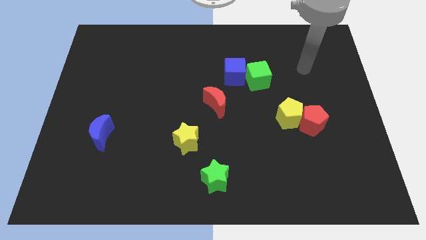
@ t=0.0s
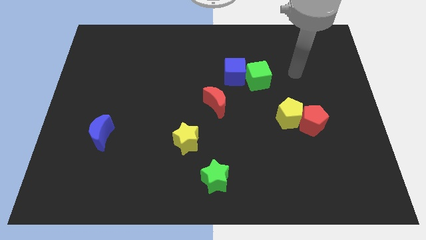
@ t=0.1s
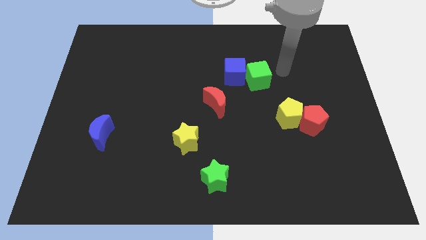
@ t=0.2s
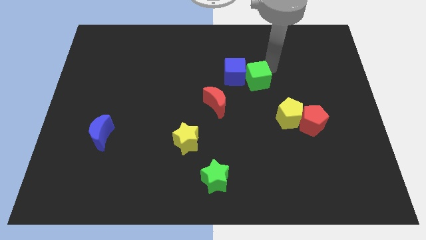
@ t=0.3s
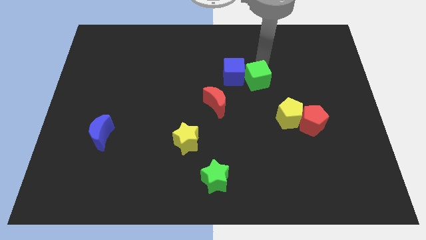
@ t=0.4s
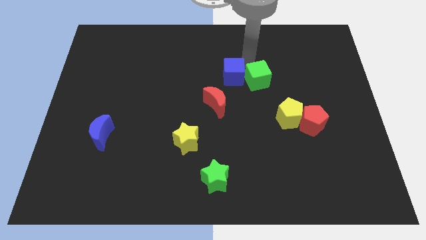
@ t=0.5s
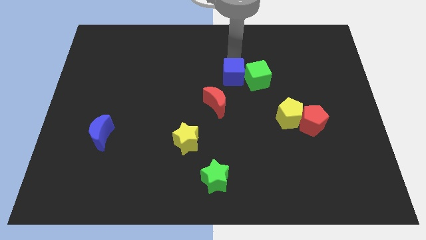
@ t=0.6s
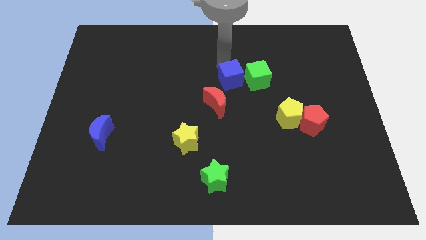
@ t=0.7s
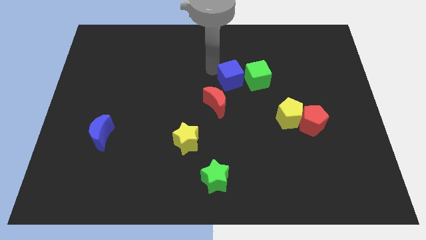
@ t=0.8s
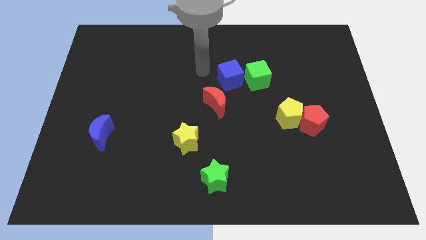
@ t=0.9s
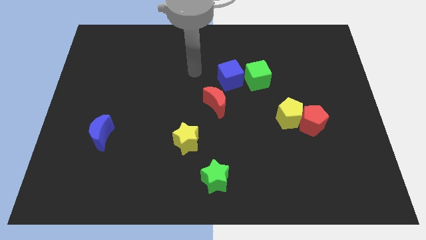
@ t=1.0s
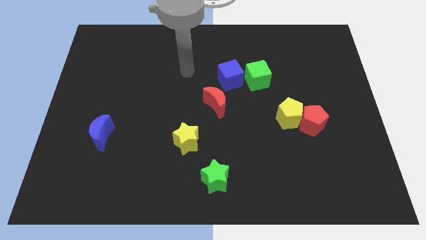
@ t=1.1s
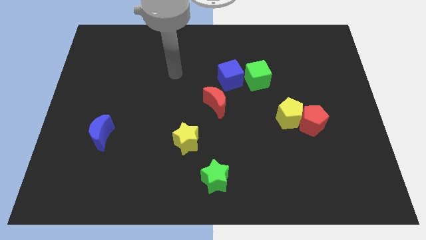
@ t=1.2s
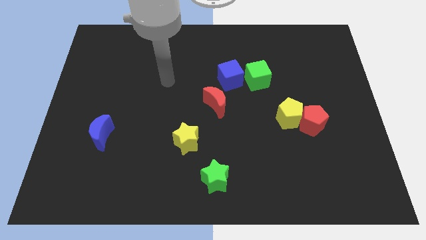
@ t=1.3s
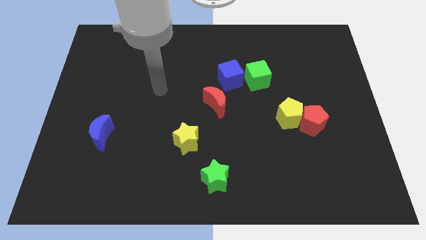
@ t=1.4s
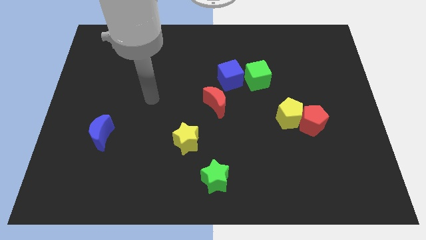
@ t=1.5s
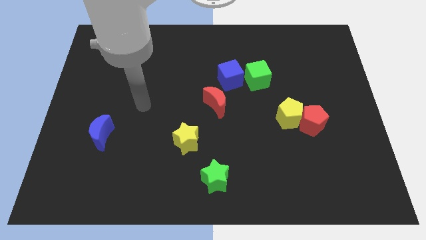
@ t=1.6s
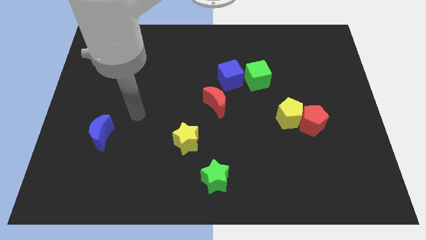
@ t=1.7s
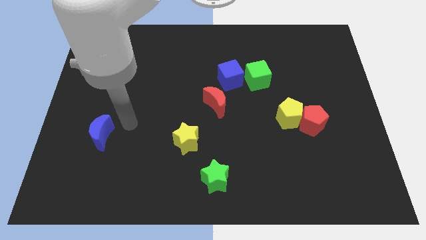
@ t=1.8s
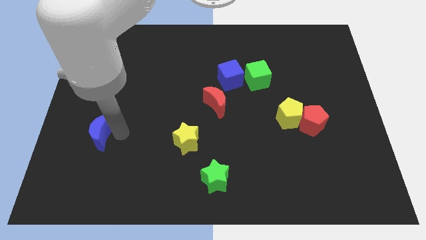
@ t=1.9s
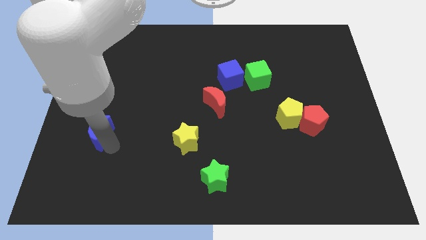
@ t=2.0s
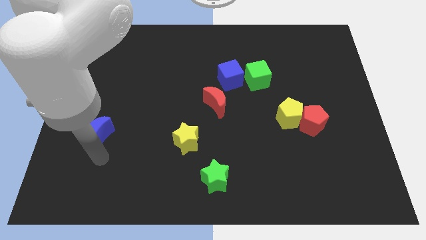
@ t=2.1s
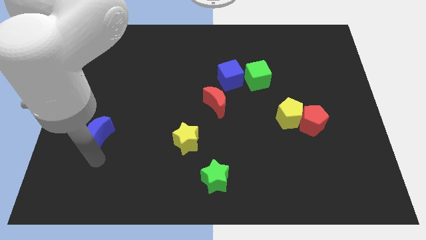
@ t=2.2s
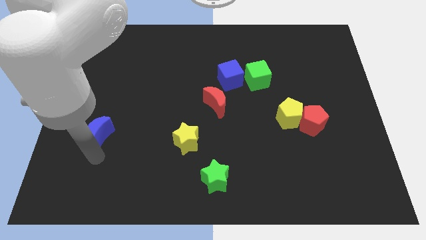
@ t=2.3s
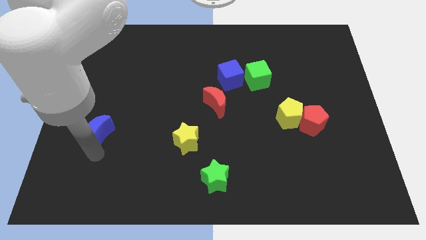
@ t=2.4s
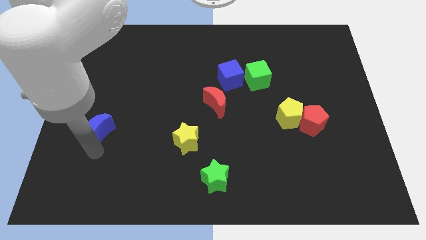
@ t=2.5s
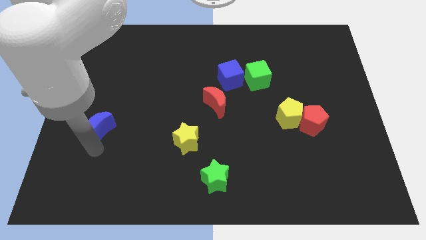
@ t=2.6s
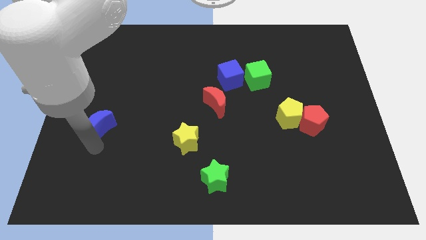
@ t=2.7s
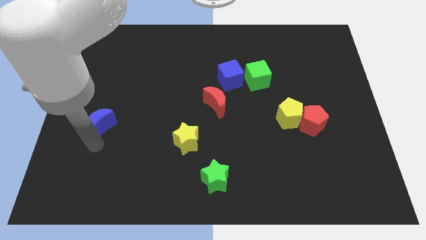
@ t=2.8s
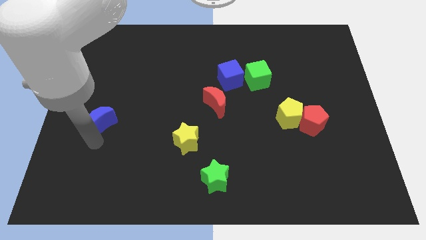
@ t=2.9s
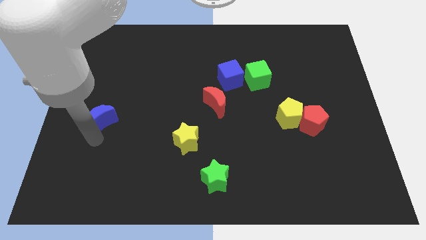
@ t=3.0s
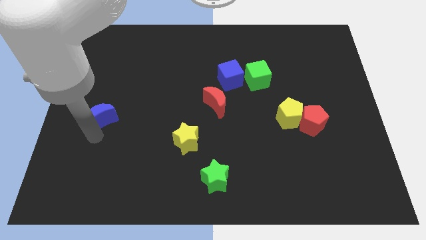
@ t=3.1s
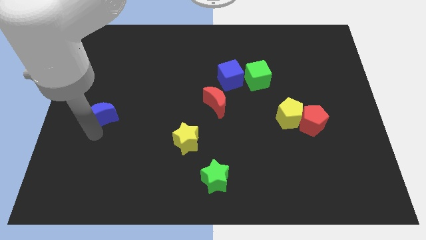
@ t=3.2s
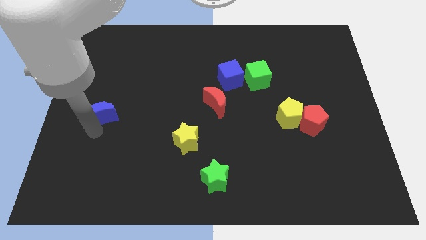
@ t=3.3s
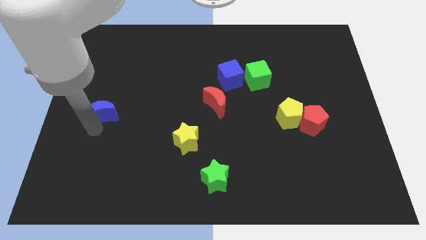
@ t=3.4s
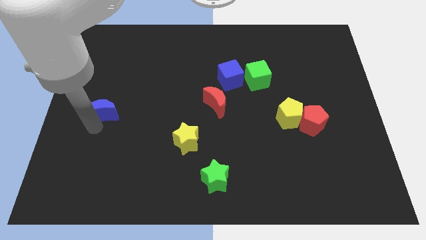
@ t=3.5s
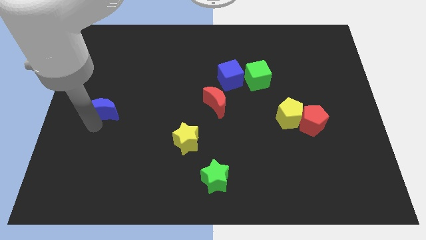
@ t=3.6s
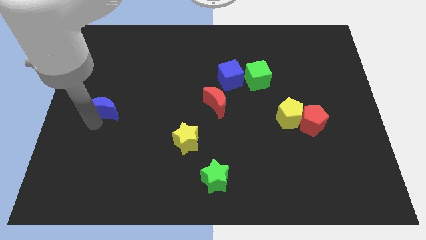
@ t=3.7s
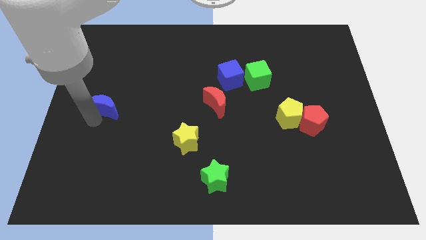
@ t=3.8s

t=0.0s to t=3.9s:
slide the blue moon up a bit

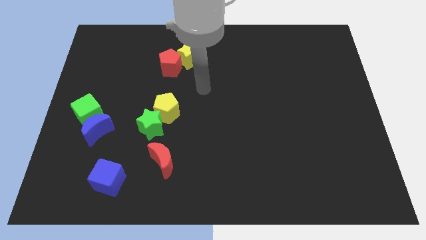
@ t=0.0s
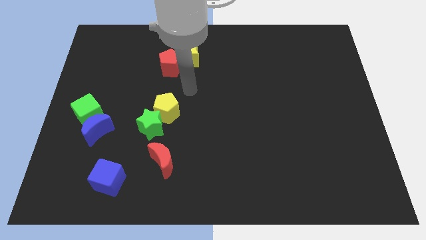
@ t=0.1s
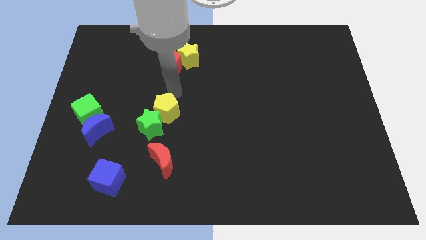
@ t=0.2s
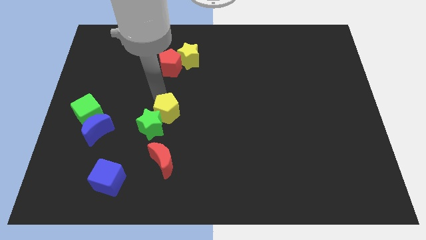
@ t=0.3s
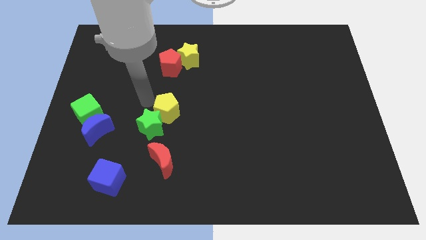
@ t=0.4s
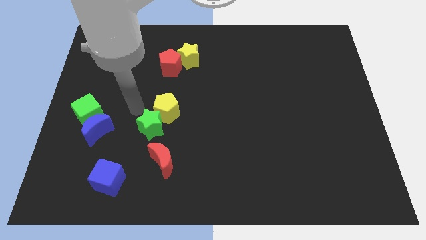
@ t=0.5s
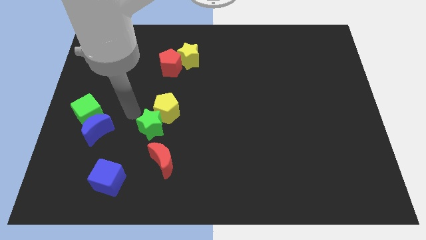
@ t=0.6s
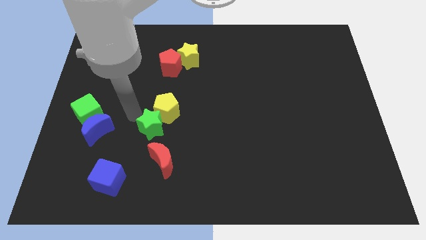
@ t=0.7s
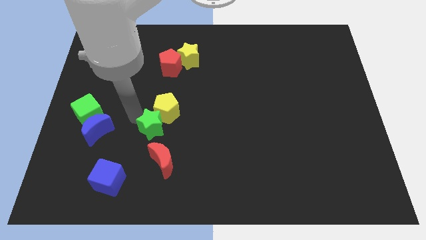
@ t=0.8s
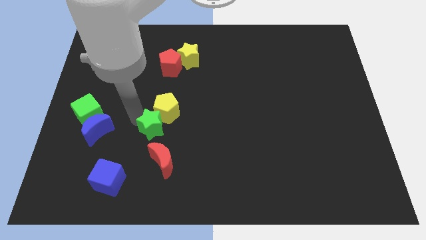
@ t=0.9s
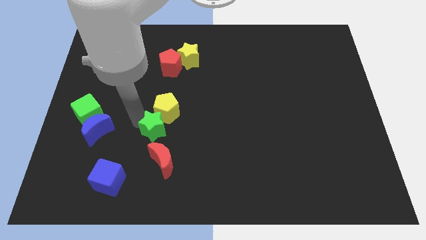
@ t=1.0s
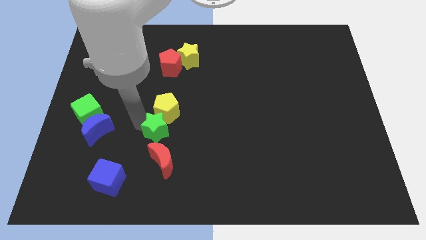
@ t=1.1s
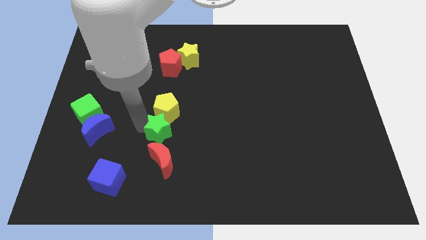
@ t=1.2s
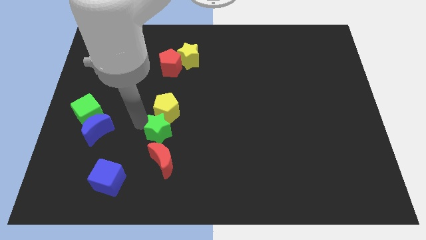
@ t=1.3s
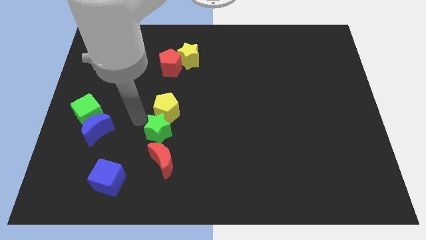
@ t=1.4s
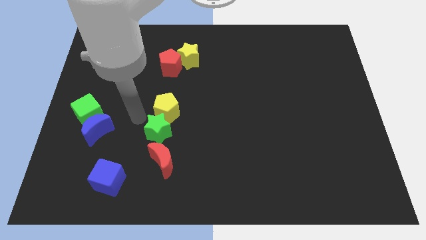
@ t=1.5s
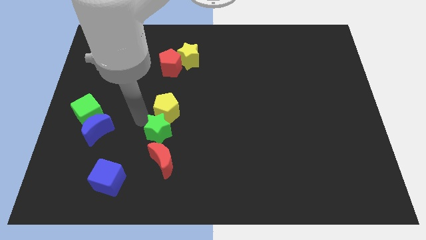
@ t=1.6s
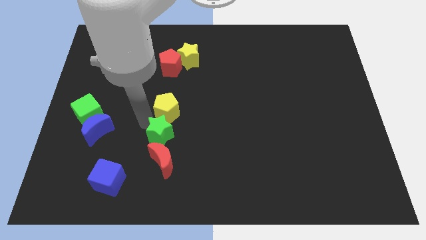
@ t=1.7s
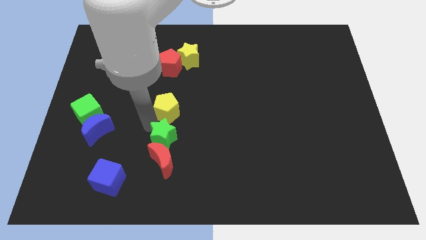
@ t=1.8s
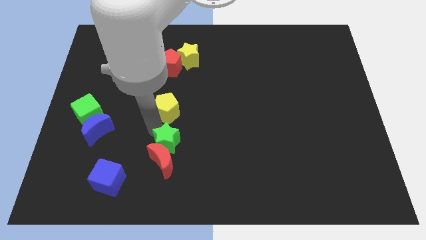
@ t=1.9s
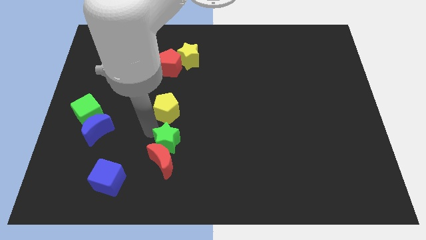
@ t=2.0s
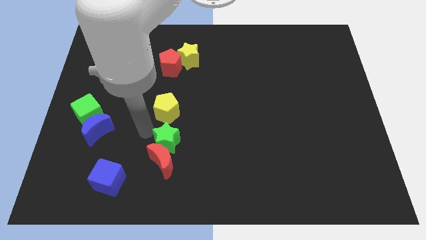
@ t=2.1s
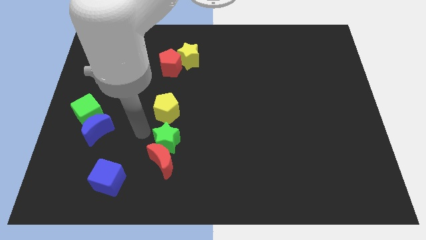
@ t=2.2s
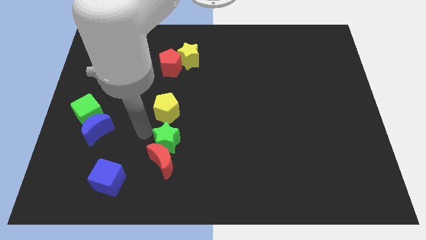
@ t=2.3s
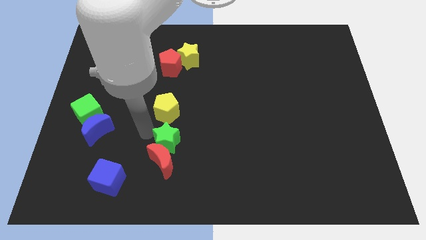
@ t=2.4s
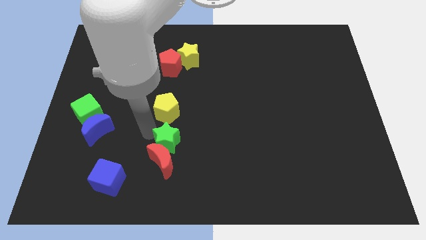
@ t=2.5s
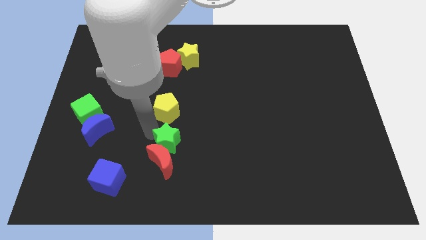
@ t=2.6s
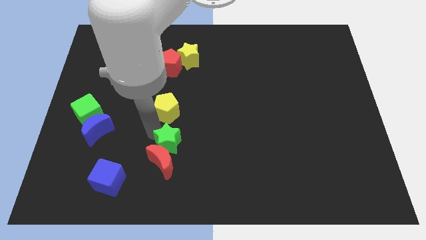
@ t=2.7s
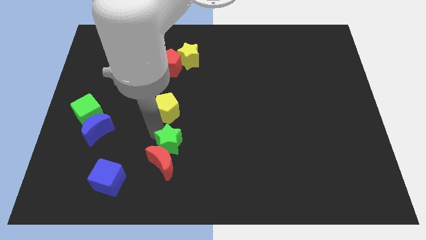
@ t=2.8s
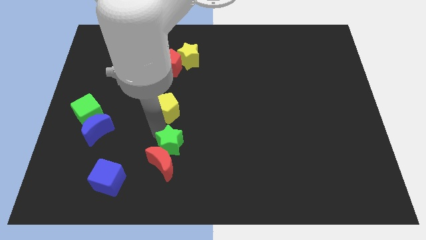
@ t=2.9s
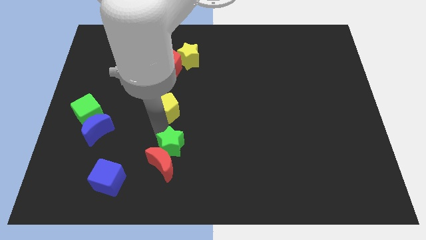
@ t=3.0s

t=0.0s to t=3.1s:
slide the green star downwards and then right somewhat

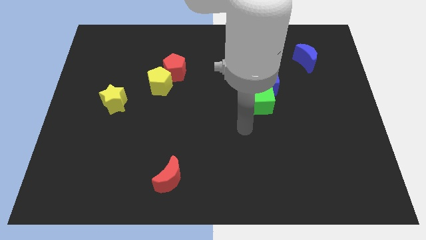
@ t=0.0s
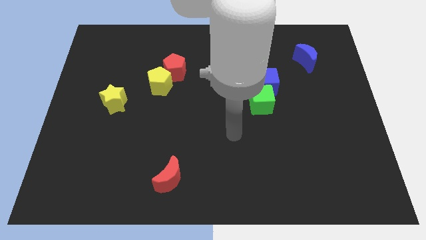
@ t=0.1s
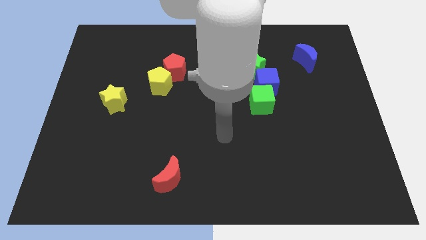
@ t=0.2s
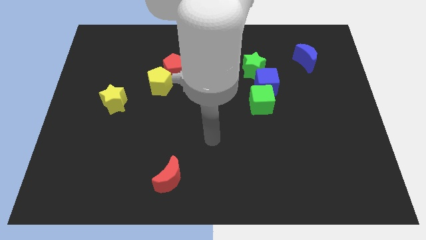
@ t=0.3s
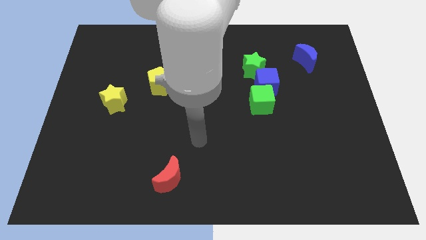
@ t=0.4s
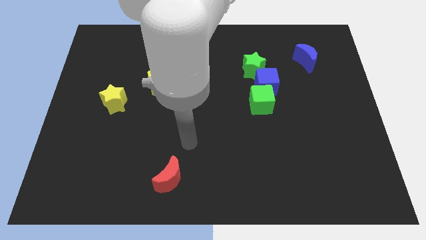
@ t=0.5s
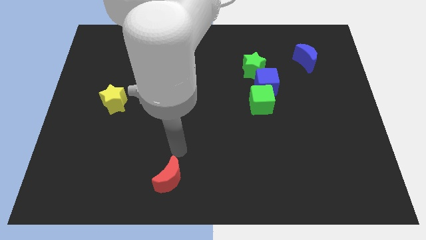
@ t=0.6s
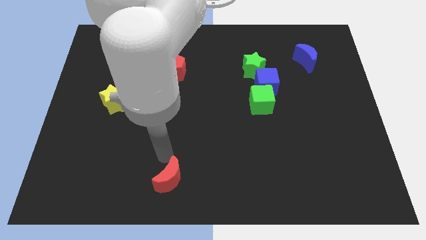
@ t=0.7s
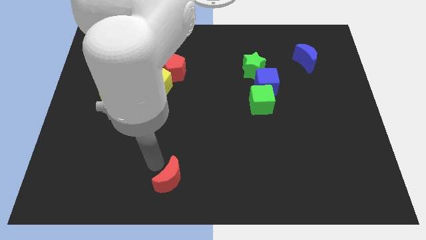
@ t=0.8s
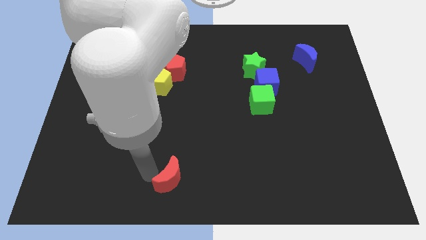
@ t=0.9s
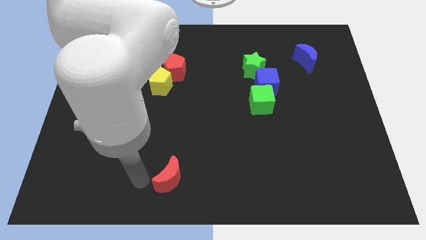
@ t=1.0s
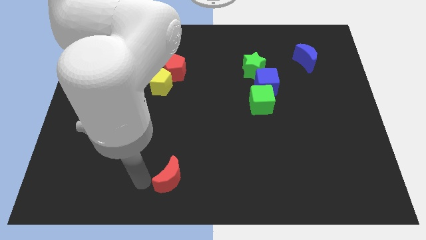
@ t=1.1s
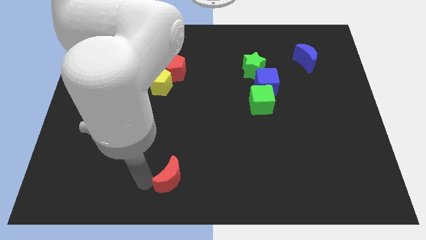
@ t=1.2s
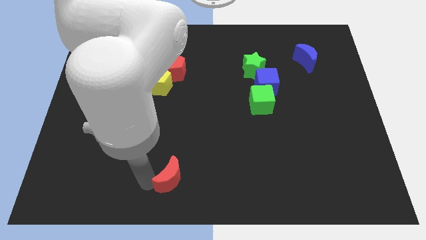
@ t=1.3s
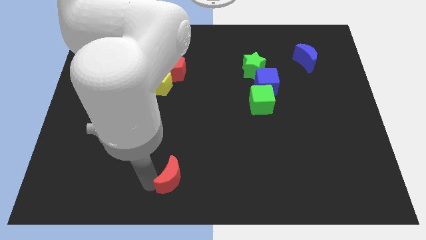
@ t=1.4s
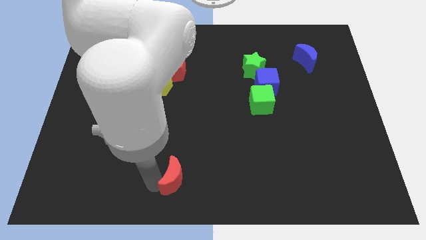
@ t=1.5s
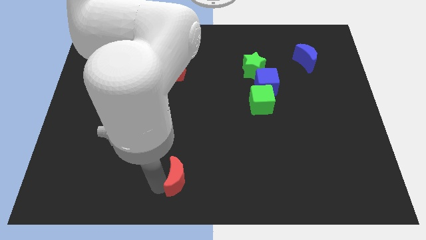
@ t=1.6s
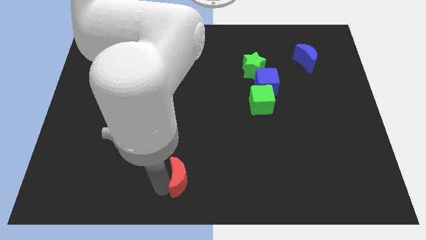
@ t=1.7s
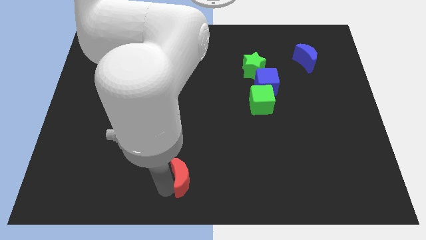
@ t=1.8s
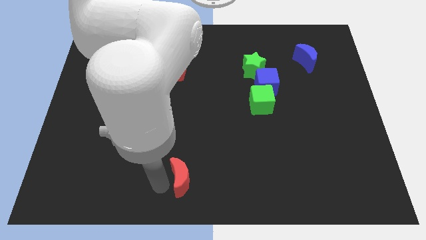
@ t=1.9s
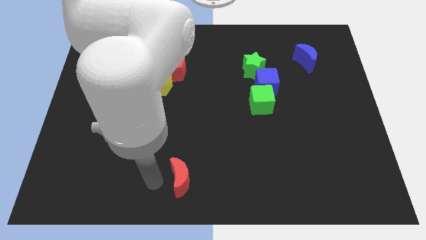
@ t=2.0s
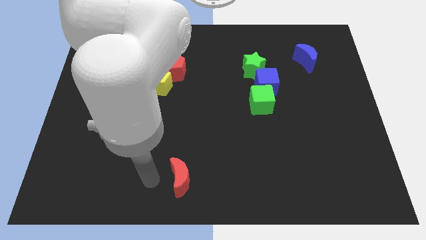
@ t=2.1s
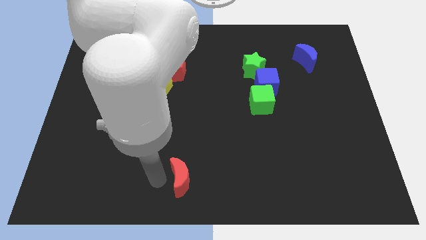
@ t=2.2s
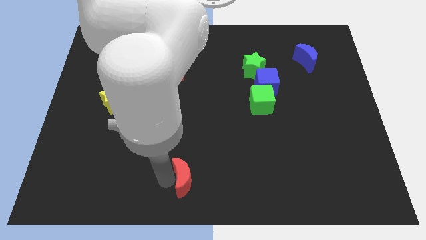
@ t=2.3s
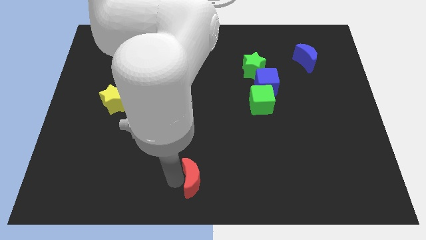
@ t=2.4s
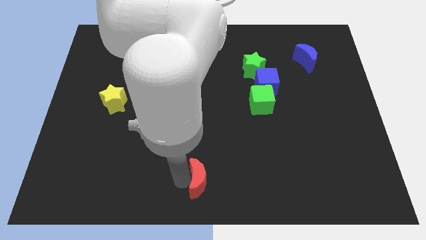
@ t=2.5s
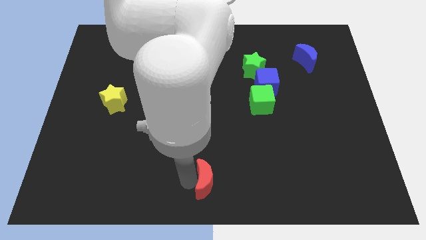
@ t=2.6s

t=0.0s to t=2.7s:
slightly slide the red moon right
